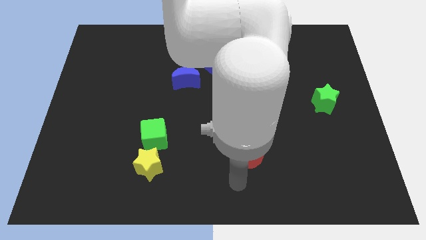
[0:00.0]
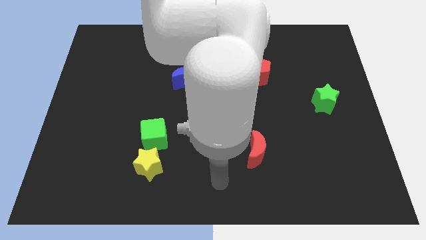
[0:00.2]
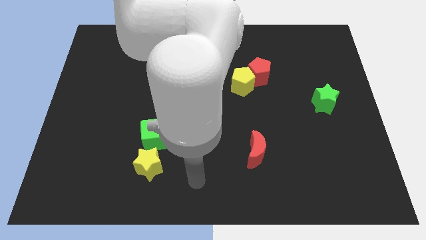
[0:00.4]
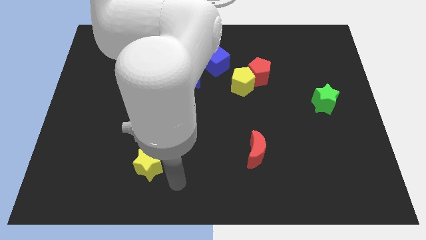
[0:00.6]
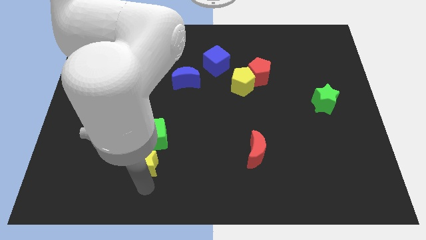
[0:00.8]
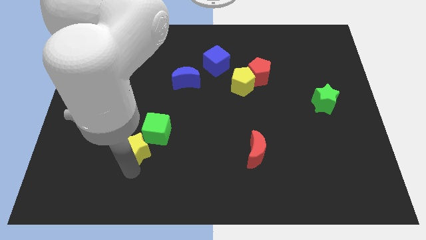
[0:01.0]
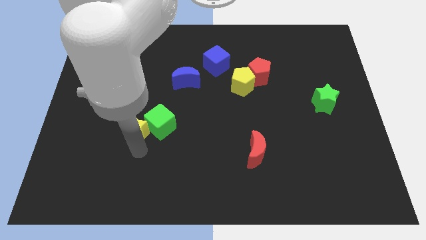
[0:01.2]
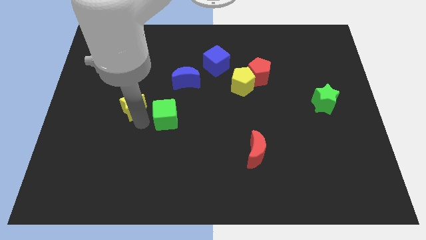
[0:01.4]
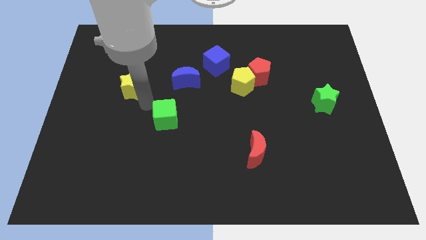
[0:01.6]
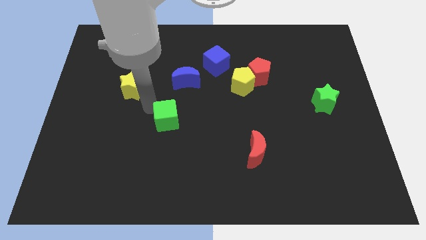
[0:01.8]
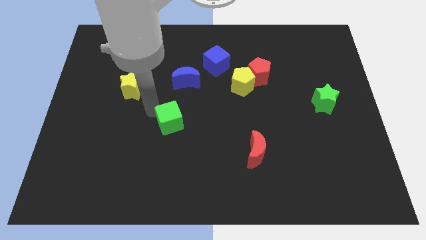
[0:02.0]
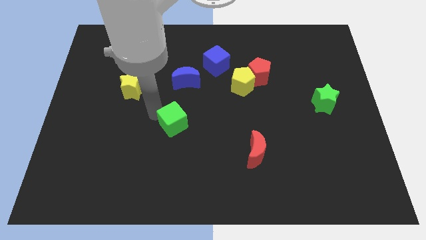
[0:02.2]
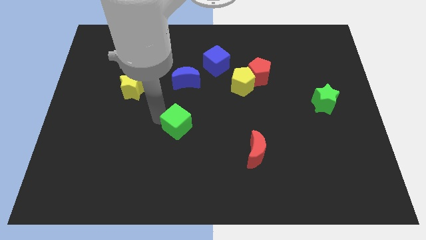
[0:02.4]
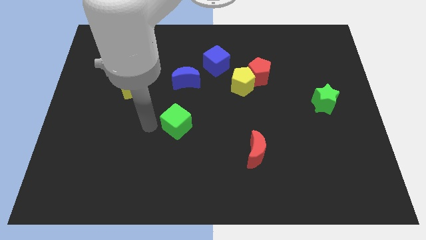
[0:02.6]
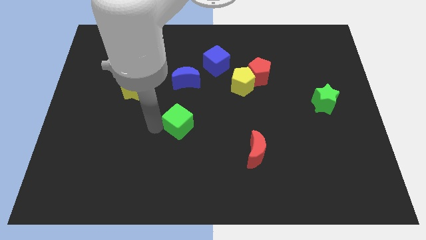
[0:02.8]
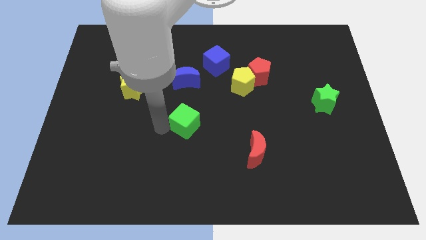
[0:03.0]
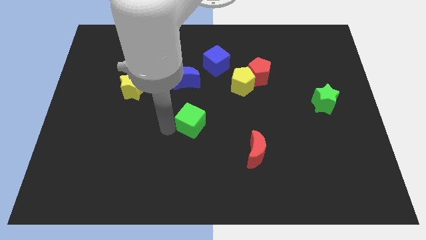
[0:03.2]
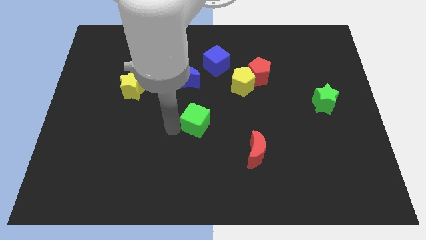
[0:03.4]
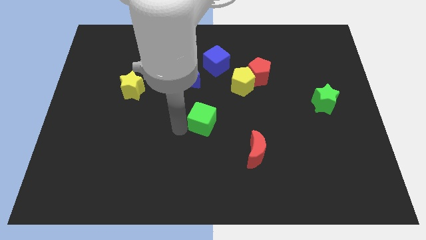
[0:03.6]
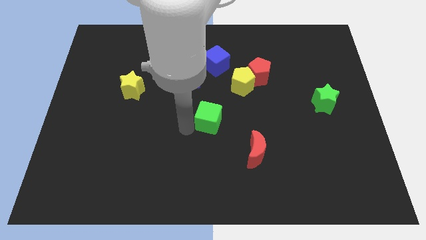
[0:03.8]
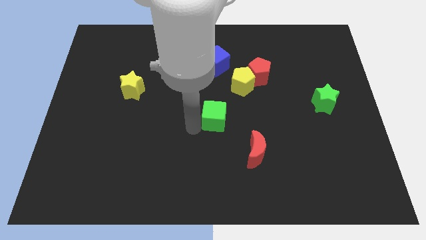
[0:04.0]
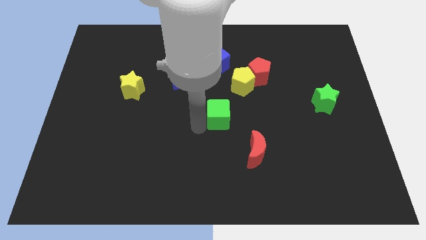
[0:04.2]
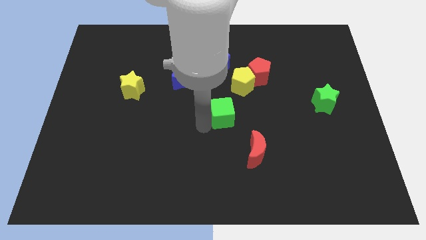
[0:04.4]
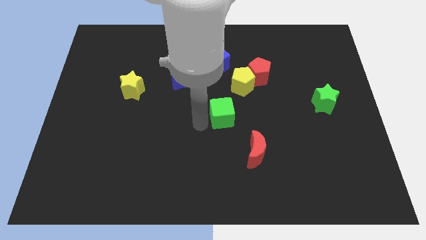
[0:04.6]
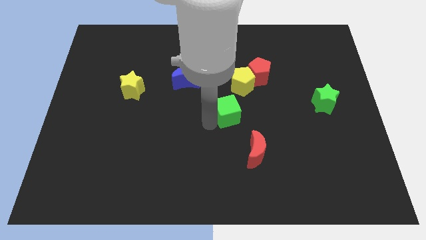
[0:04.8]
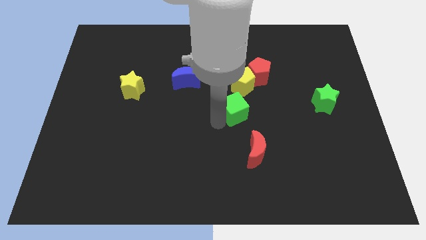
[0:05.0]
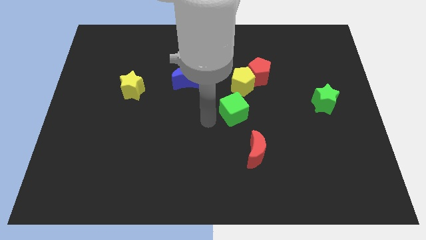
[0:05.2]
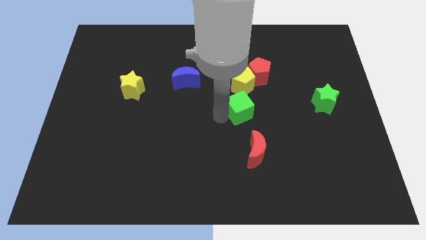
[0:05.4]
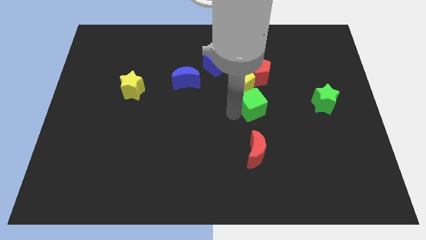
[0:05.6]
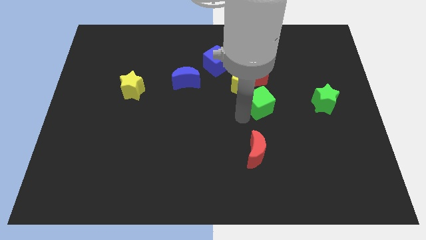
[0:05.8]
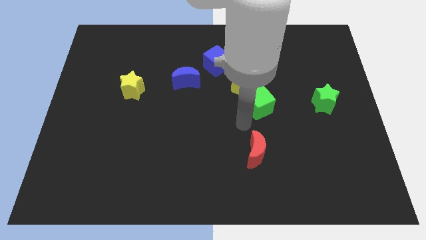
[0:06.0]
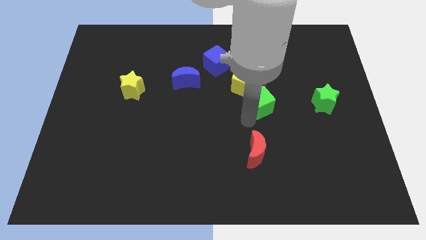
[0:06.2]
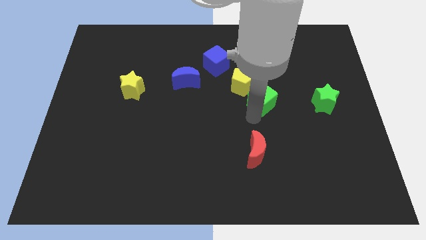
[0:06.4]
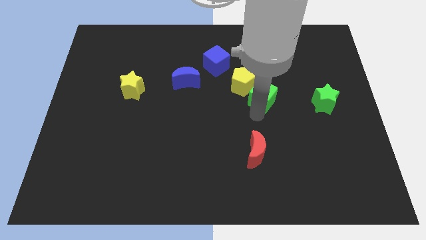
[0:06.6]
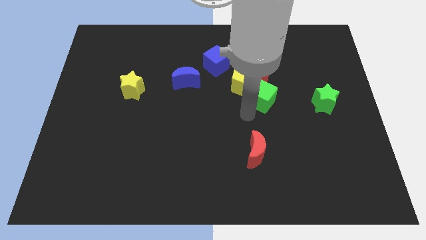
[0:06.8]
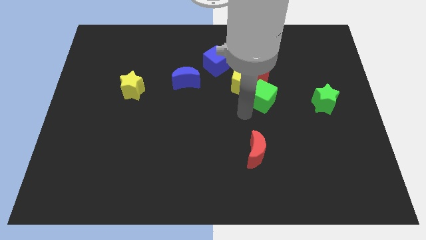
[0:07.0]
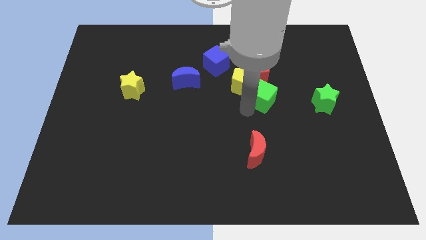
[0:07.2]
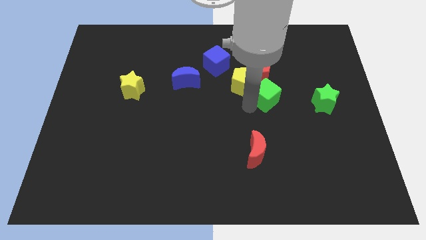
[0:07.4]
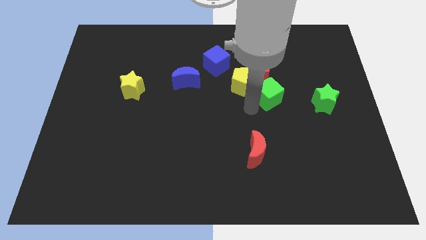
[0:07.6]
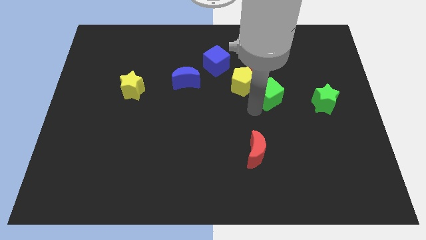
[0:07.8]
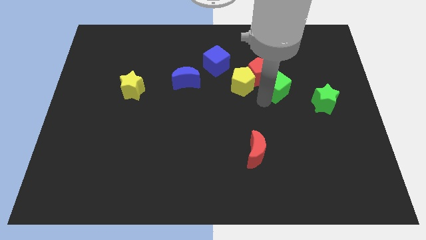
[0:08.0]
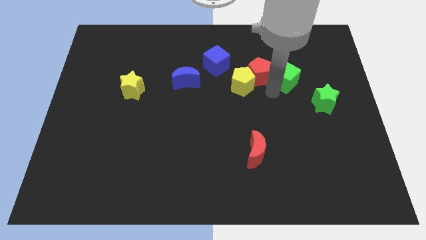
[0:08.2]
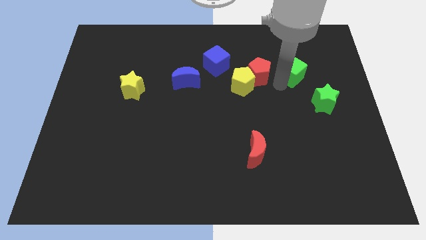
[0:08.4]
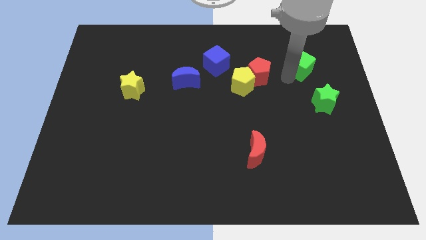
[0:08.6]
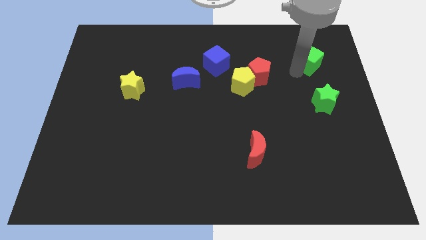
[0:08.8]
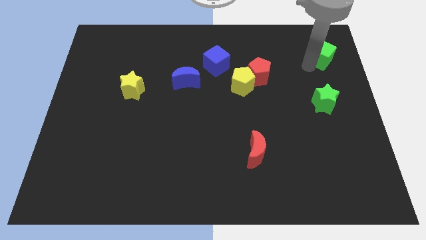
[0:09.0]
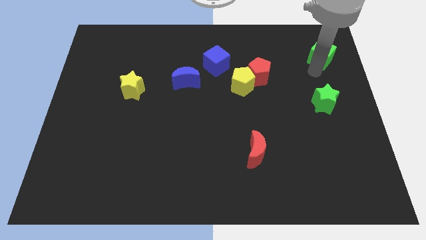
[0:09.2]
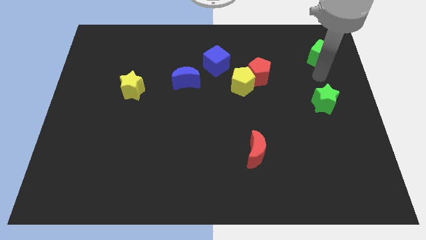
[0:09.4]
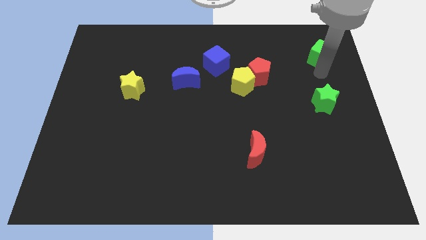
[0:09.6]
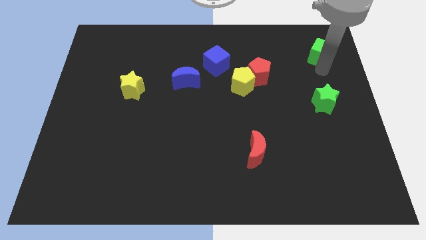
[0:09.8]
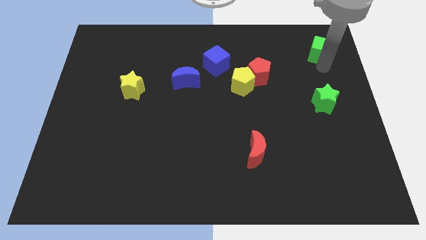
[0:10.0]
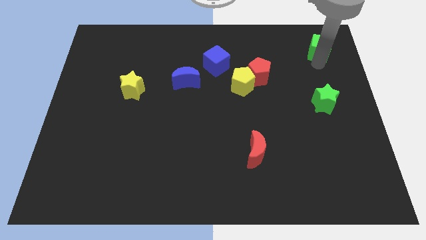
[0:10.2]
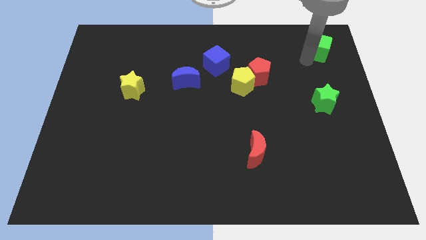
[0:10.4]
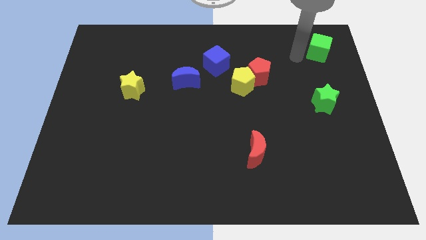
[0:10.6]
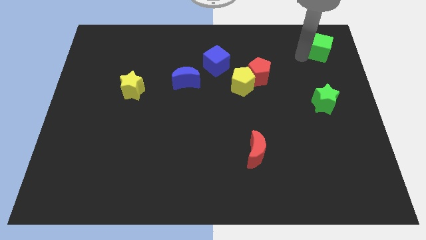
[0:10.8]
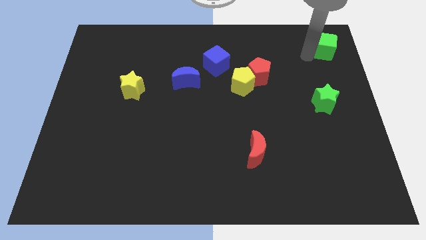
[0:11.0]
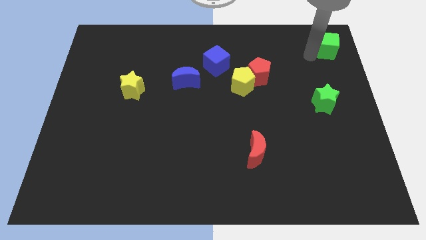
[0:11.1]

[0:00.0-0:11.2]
move the green cube to the top right of the board
